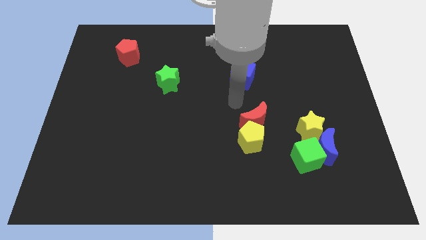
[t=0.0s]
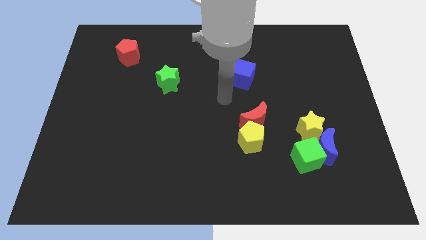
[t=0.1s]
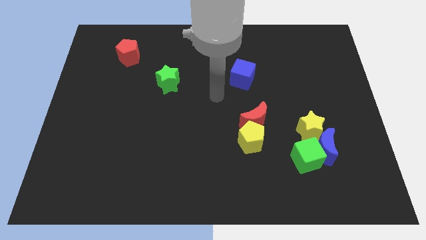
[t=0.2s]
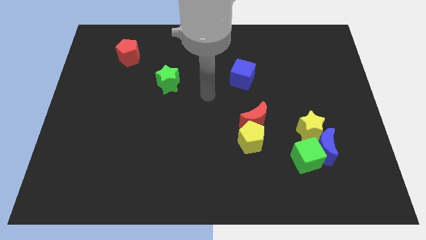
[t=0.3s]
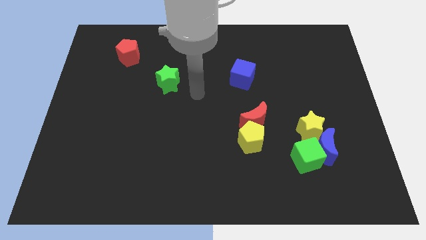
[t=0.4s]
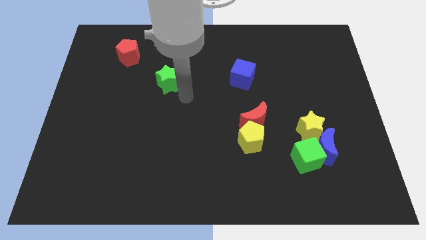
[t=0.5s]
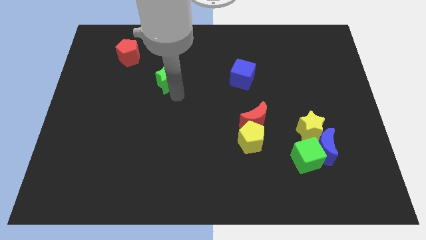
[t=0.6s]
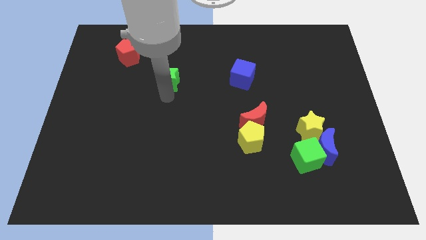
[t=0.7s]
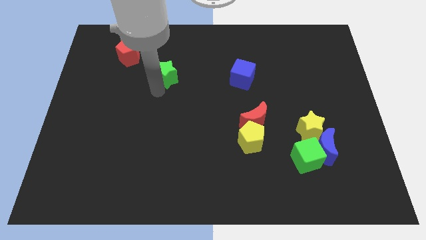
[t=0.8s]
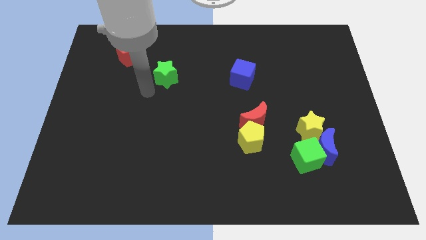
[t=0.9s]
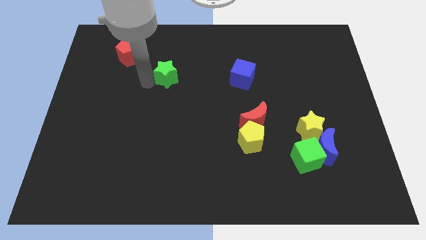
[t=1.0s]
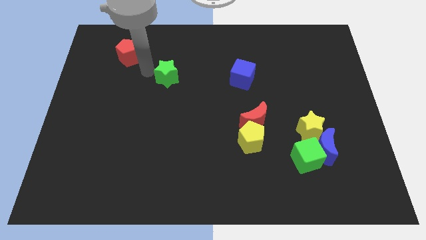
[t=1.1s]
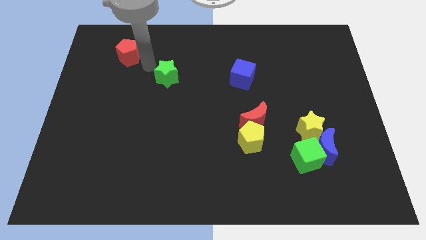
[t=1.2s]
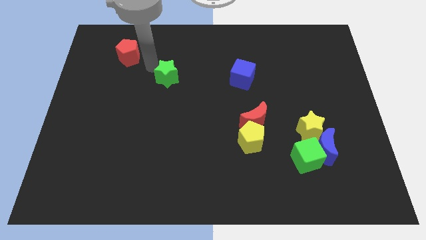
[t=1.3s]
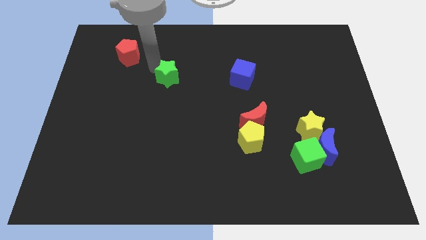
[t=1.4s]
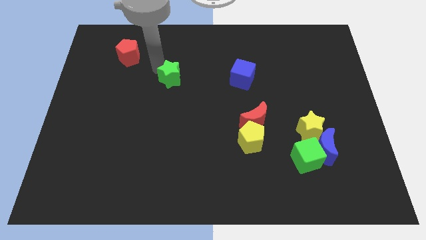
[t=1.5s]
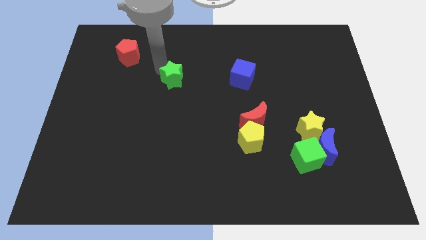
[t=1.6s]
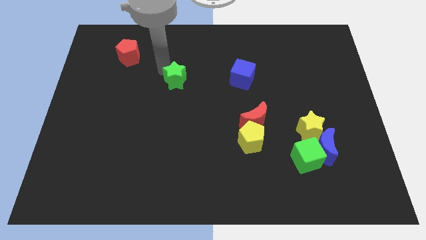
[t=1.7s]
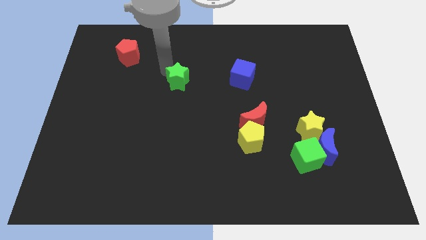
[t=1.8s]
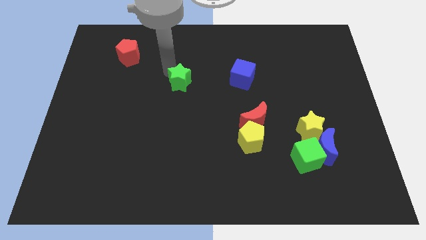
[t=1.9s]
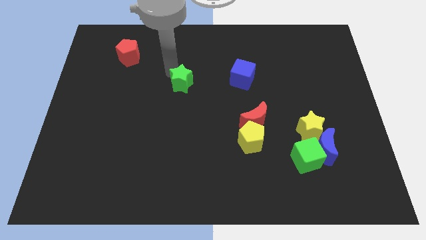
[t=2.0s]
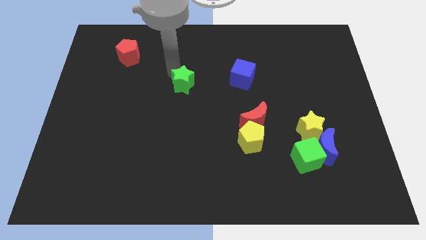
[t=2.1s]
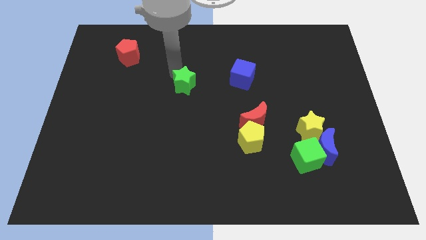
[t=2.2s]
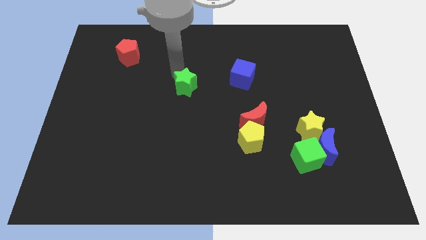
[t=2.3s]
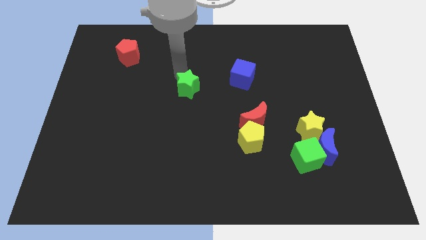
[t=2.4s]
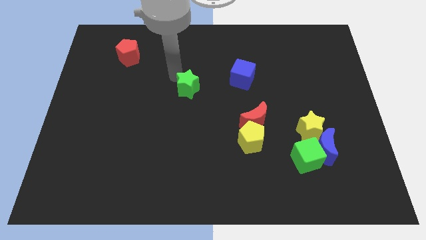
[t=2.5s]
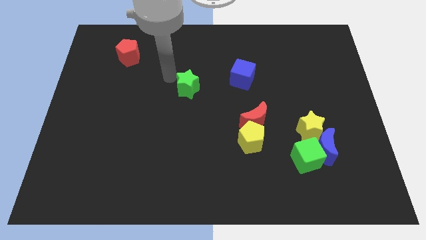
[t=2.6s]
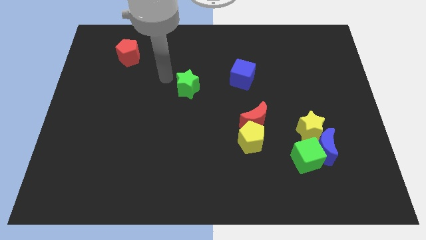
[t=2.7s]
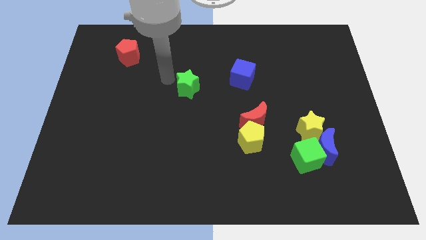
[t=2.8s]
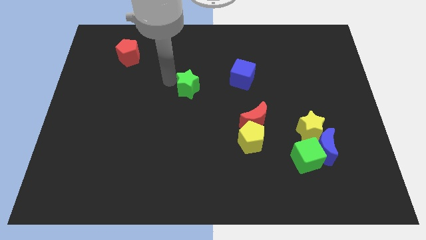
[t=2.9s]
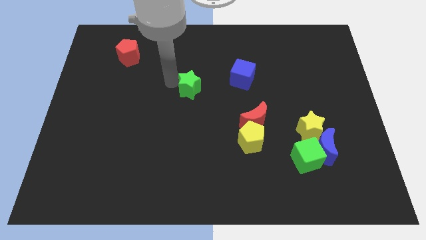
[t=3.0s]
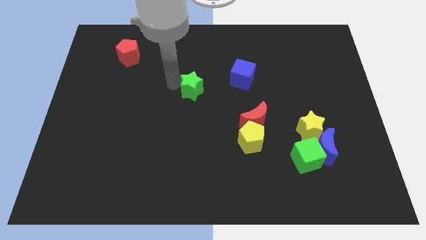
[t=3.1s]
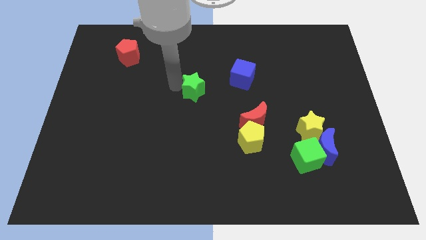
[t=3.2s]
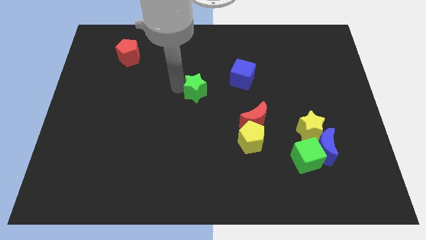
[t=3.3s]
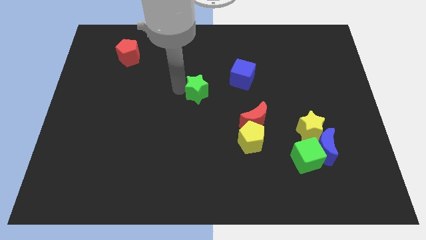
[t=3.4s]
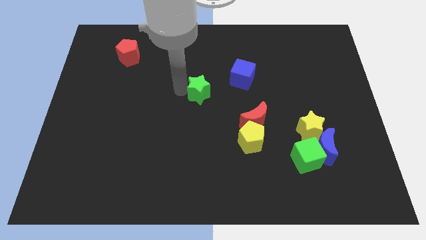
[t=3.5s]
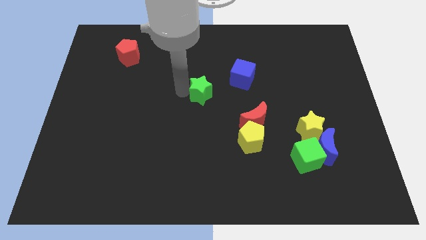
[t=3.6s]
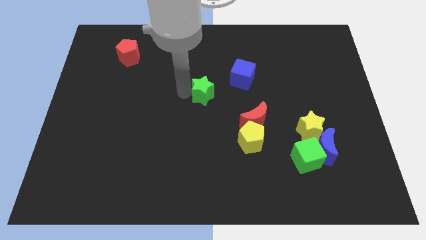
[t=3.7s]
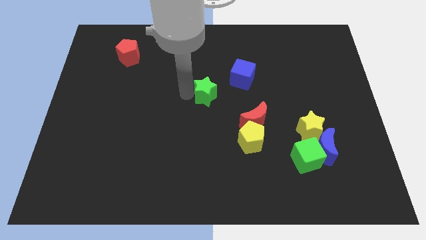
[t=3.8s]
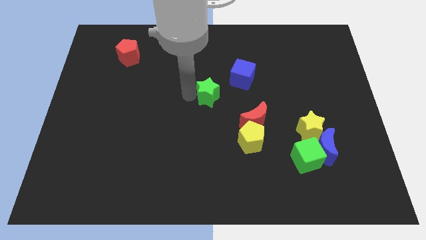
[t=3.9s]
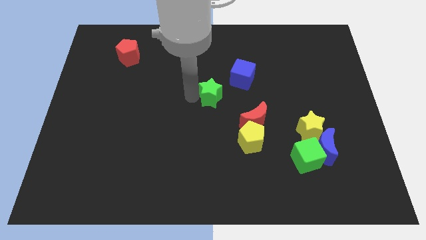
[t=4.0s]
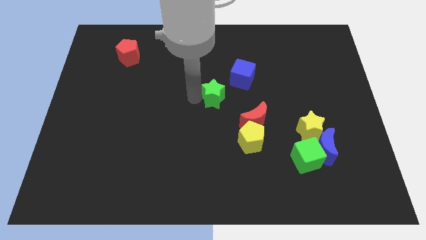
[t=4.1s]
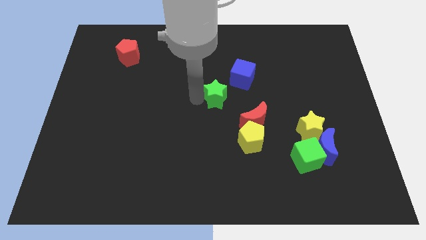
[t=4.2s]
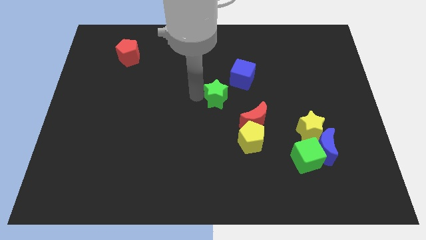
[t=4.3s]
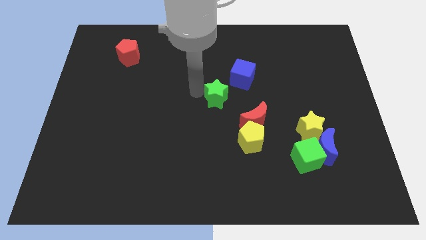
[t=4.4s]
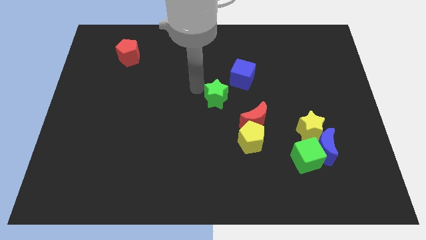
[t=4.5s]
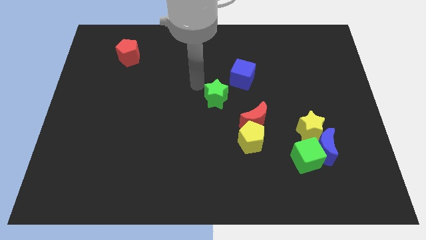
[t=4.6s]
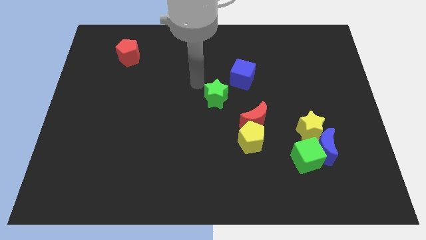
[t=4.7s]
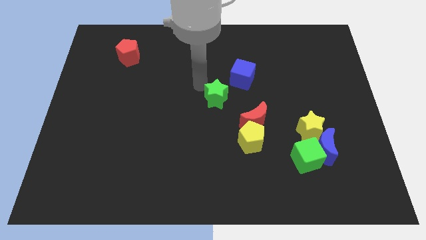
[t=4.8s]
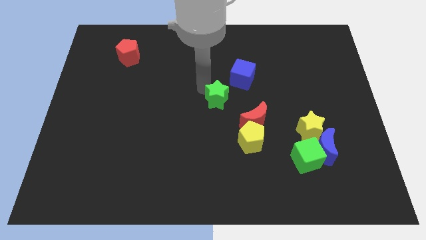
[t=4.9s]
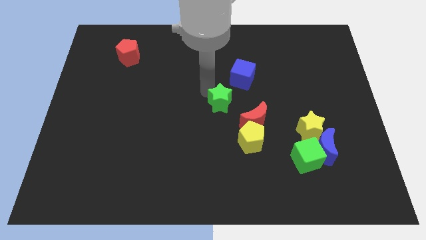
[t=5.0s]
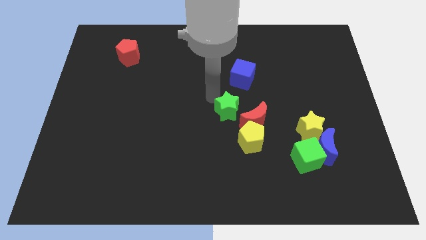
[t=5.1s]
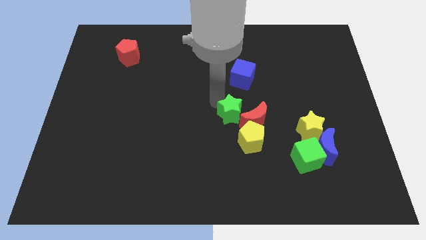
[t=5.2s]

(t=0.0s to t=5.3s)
slide the green star next to the red moon

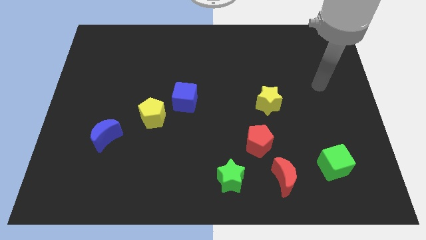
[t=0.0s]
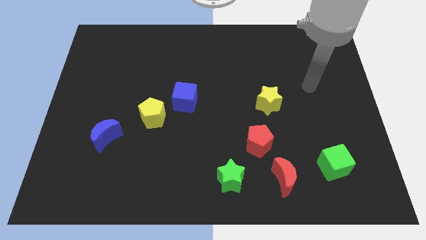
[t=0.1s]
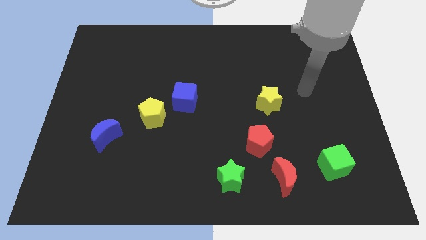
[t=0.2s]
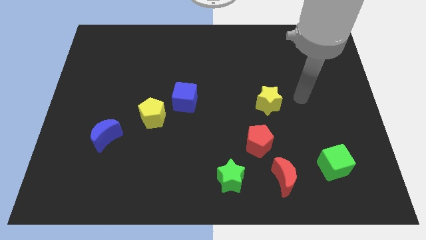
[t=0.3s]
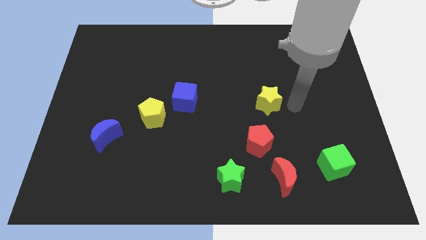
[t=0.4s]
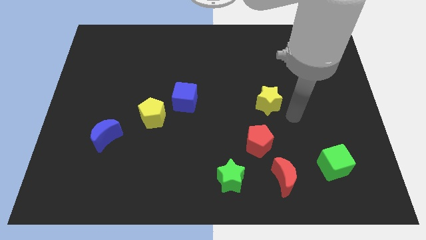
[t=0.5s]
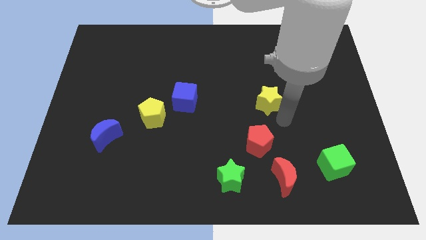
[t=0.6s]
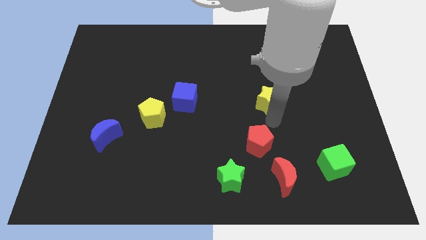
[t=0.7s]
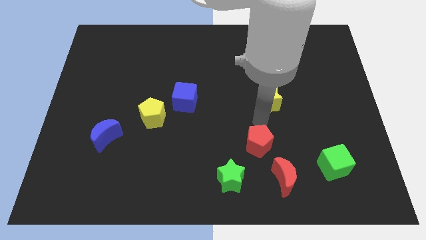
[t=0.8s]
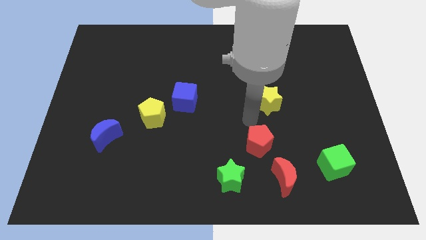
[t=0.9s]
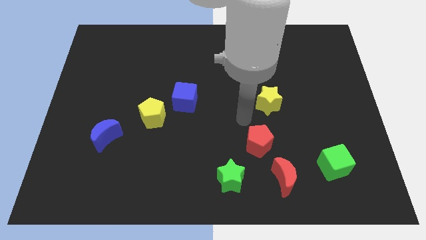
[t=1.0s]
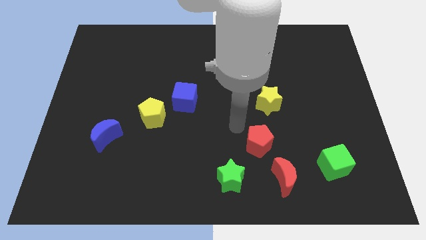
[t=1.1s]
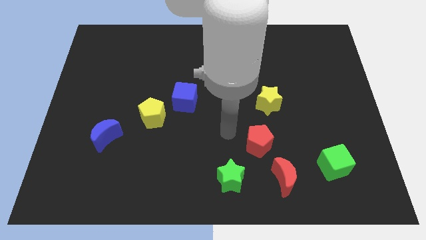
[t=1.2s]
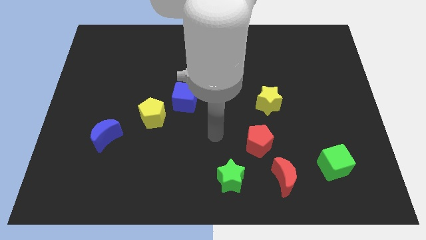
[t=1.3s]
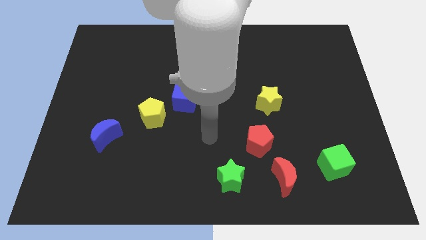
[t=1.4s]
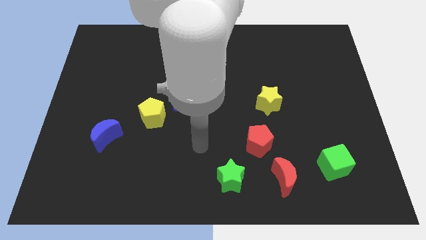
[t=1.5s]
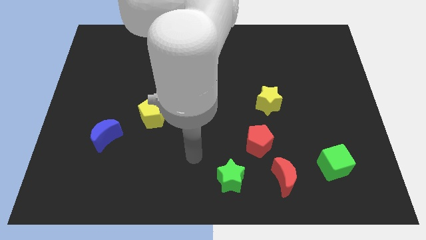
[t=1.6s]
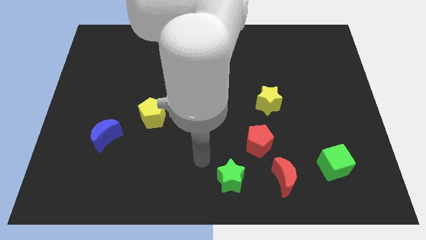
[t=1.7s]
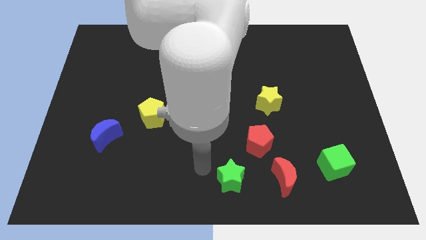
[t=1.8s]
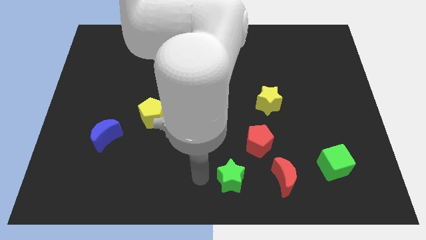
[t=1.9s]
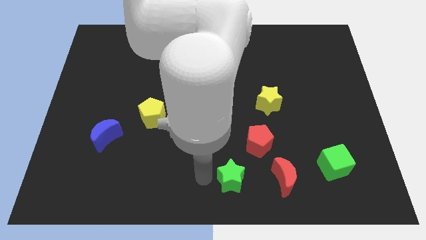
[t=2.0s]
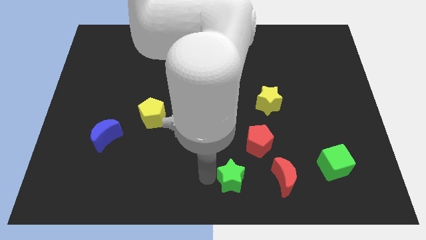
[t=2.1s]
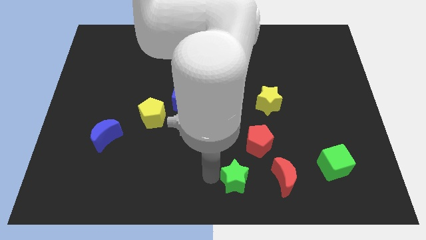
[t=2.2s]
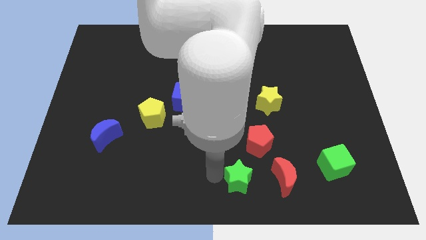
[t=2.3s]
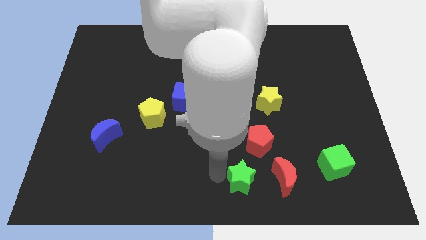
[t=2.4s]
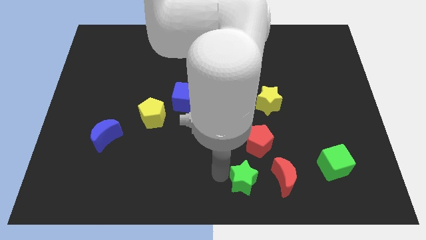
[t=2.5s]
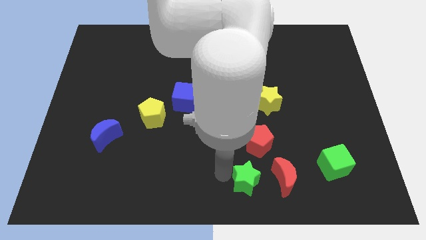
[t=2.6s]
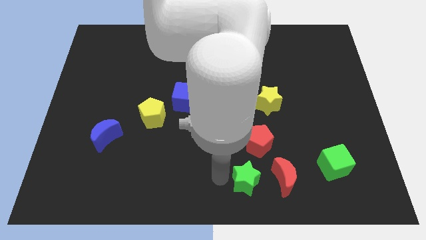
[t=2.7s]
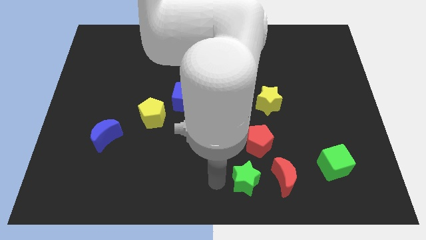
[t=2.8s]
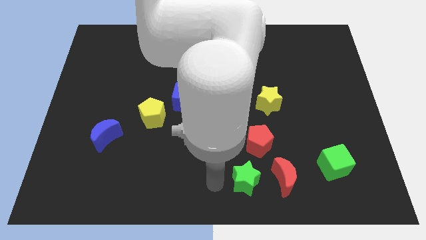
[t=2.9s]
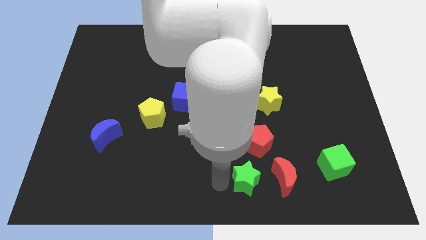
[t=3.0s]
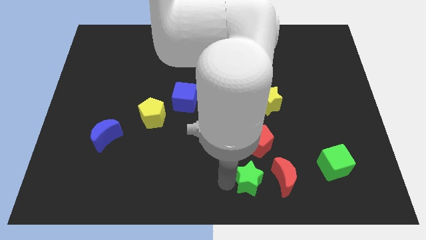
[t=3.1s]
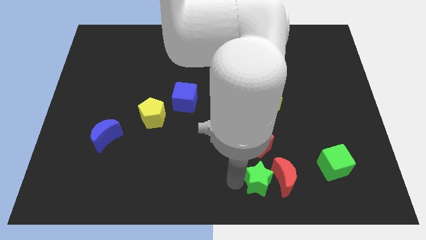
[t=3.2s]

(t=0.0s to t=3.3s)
put the green star close to the red moon
